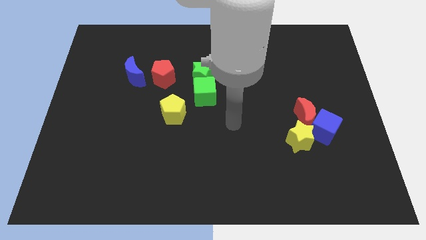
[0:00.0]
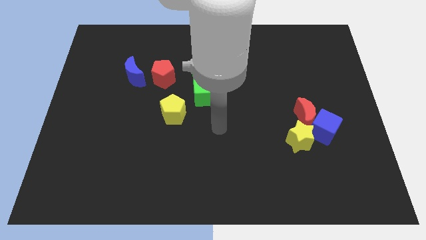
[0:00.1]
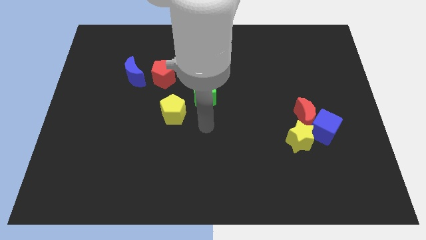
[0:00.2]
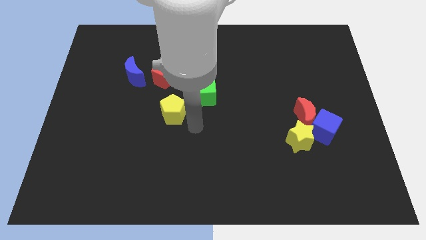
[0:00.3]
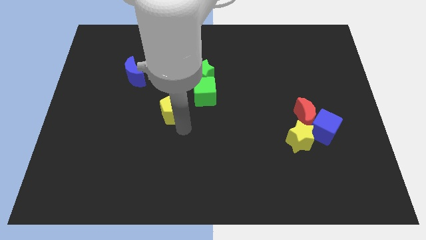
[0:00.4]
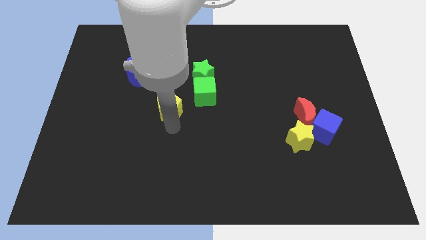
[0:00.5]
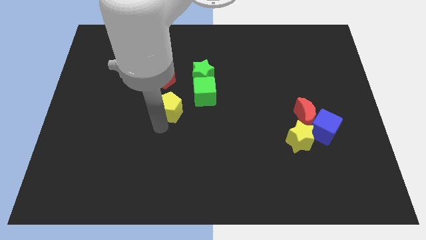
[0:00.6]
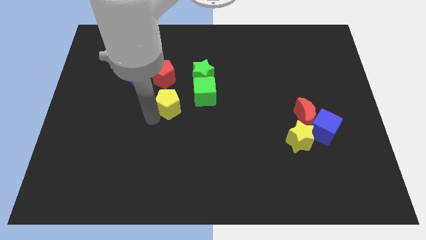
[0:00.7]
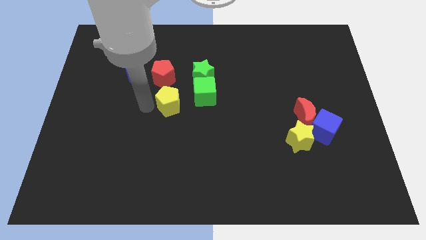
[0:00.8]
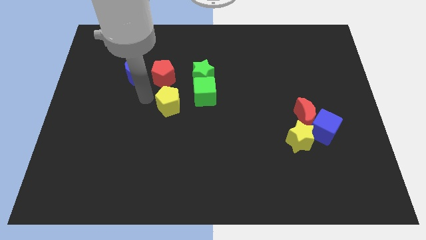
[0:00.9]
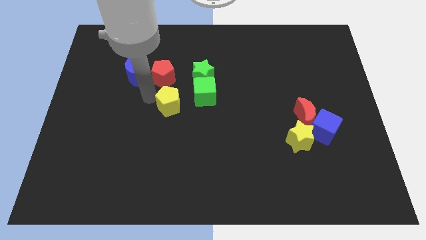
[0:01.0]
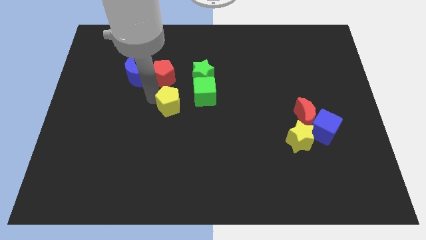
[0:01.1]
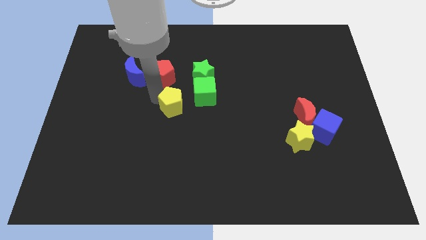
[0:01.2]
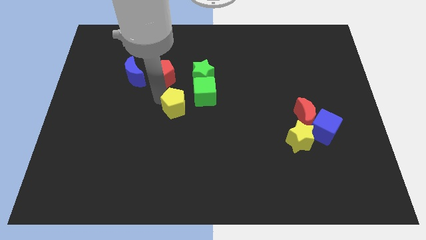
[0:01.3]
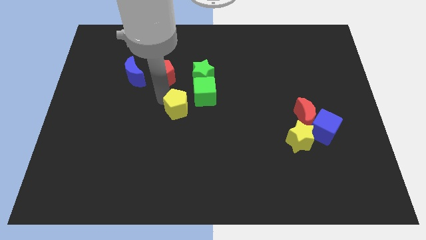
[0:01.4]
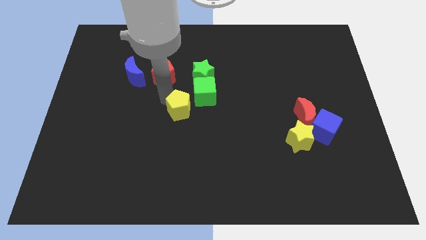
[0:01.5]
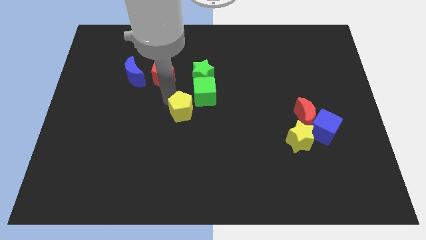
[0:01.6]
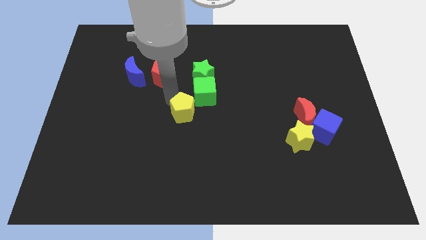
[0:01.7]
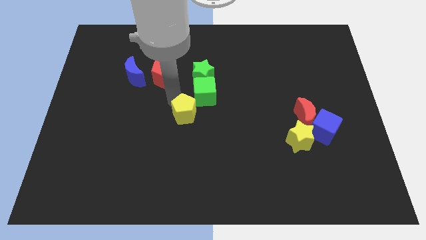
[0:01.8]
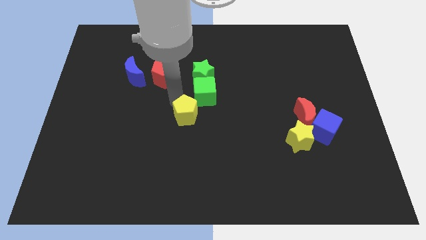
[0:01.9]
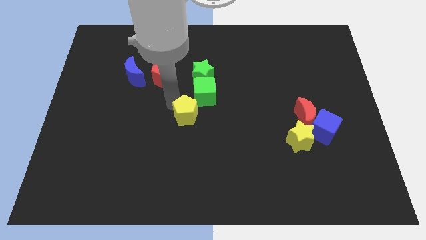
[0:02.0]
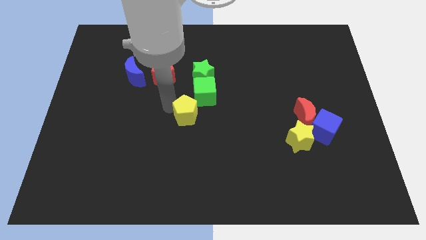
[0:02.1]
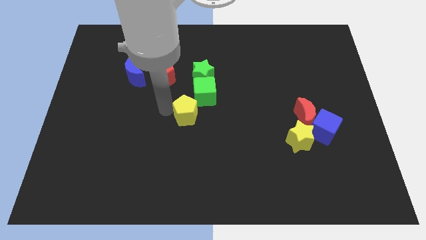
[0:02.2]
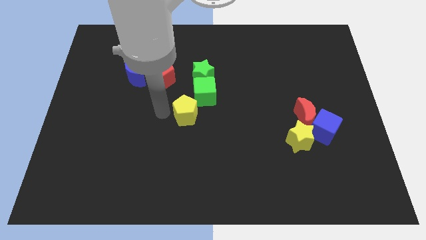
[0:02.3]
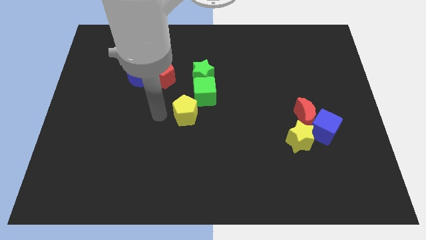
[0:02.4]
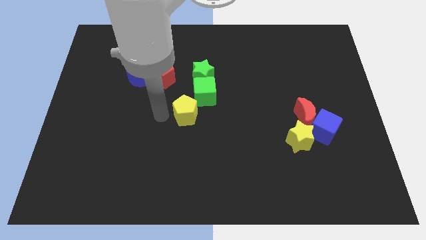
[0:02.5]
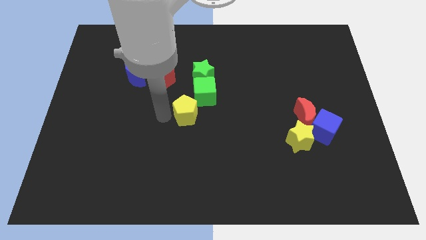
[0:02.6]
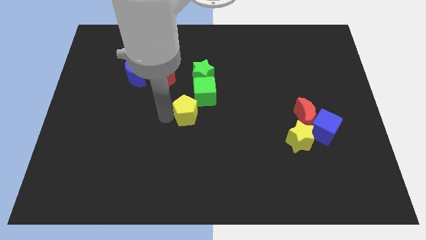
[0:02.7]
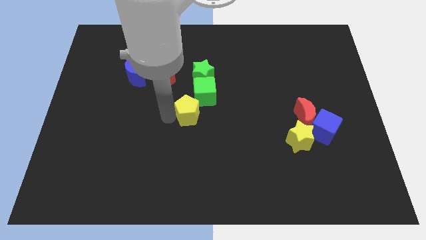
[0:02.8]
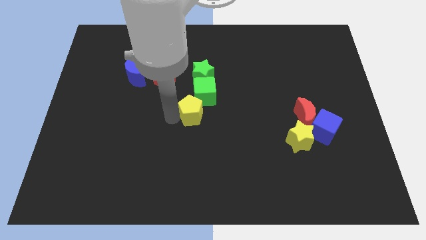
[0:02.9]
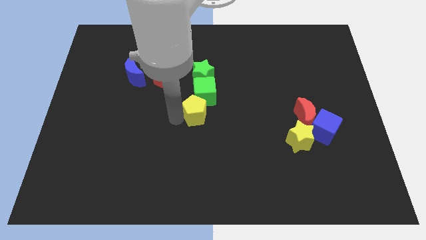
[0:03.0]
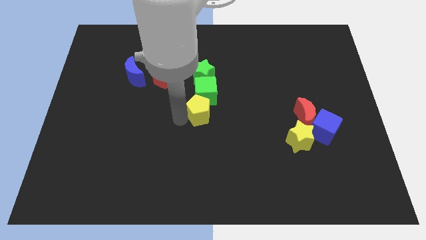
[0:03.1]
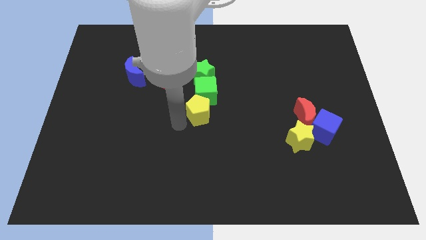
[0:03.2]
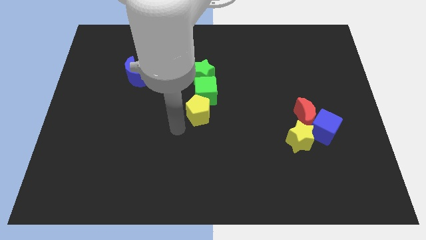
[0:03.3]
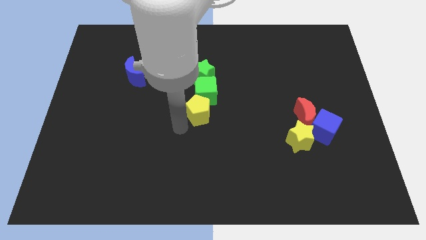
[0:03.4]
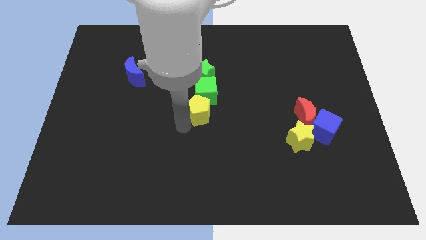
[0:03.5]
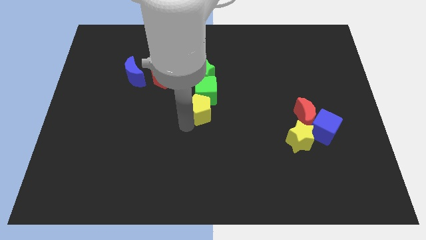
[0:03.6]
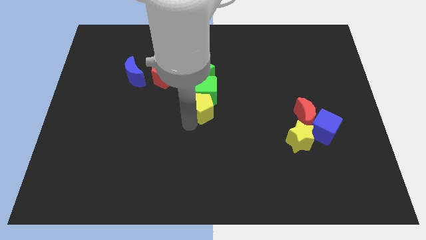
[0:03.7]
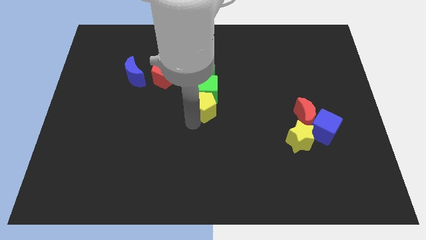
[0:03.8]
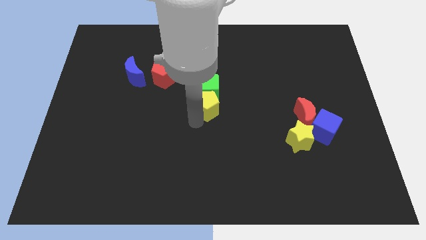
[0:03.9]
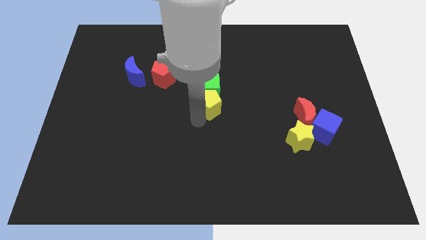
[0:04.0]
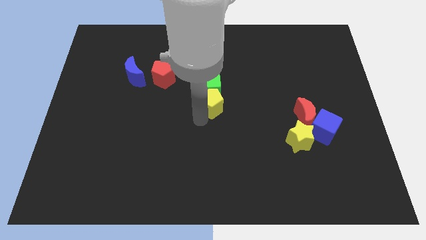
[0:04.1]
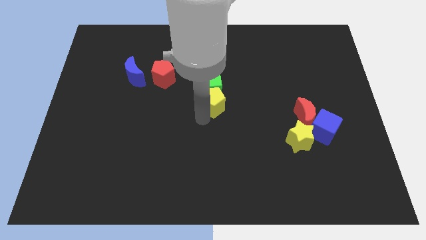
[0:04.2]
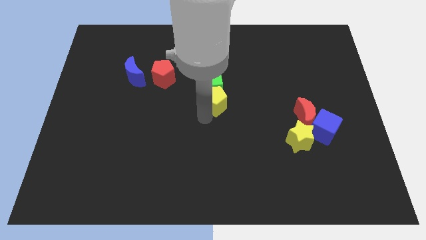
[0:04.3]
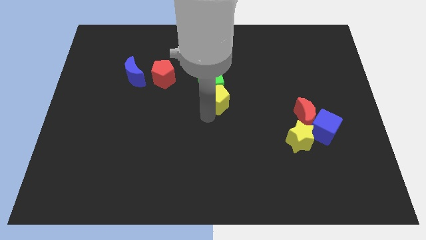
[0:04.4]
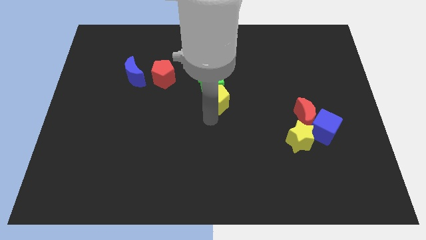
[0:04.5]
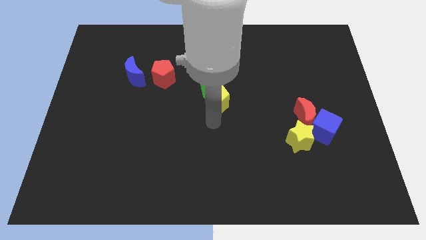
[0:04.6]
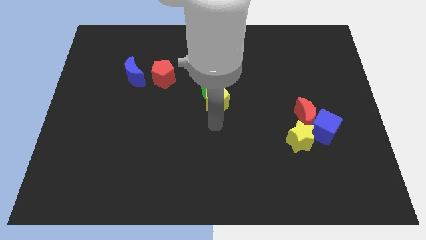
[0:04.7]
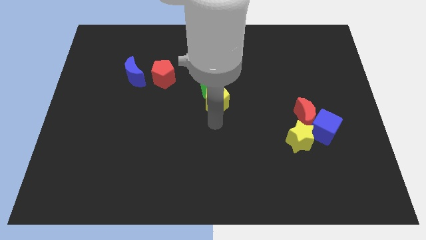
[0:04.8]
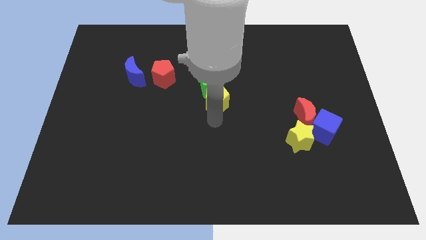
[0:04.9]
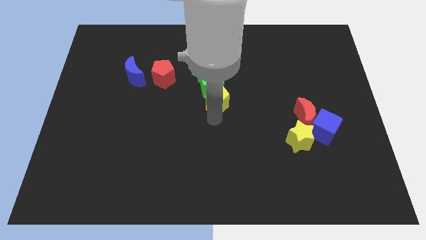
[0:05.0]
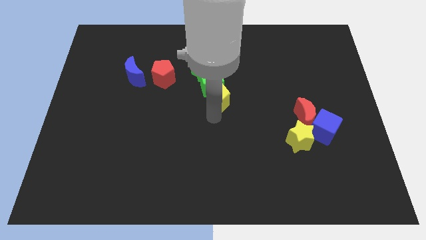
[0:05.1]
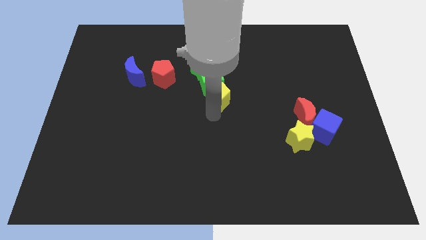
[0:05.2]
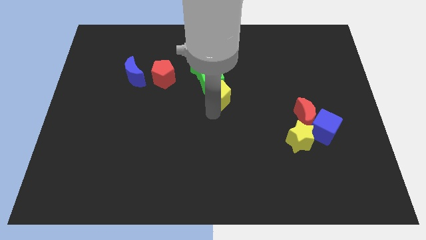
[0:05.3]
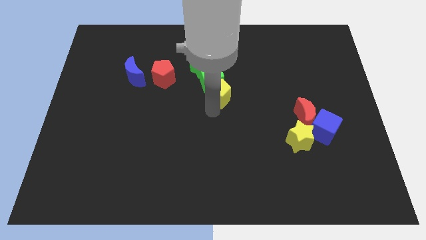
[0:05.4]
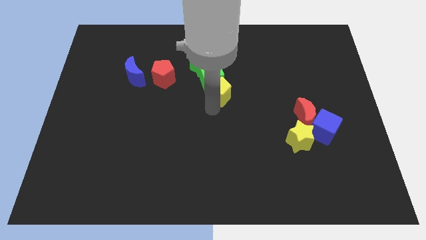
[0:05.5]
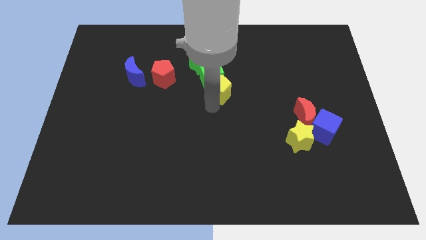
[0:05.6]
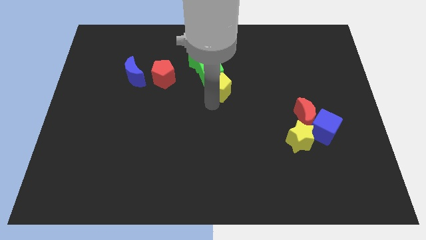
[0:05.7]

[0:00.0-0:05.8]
slide the yellow pentagon just right of the red pentagon

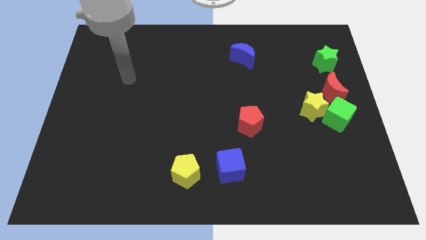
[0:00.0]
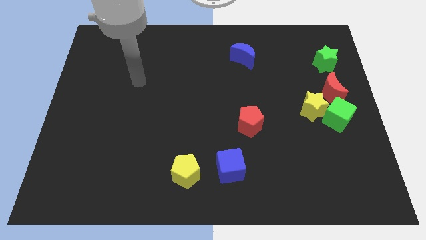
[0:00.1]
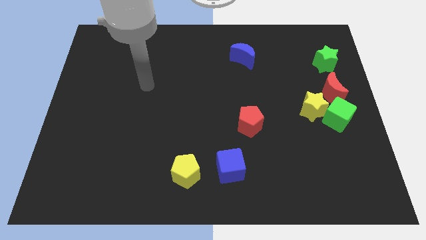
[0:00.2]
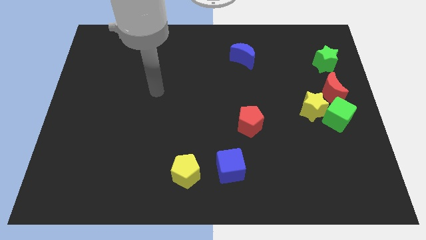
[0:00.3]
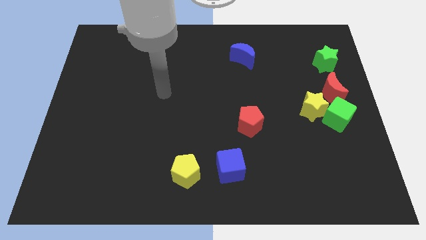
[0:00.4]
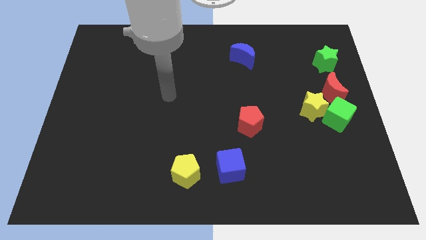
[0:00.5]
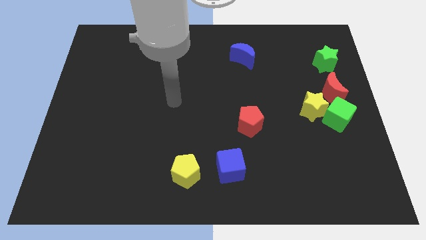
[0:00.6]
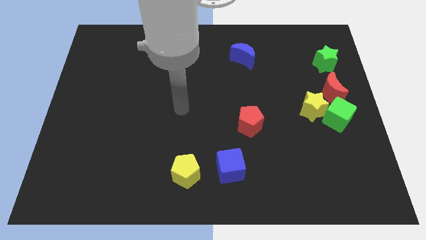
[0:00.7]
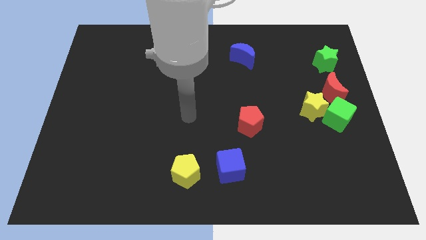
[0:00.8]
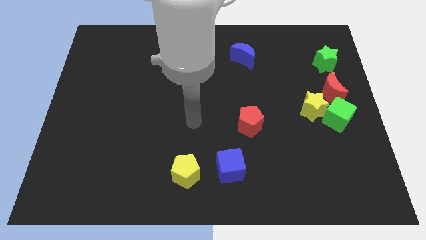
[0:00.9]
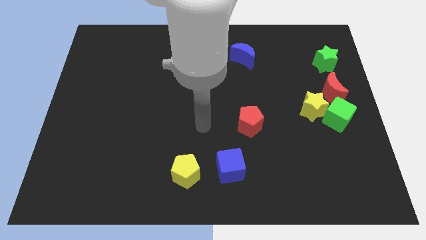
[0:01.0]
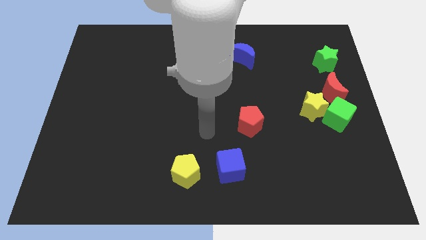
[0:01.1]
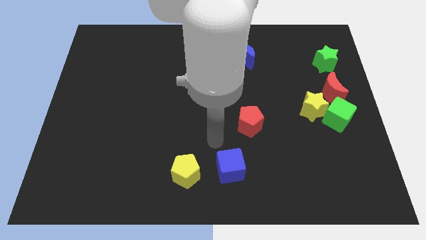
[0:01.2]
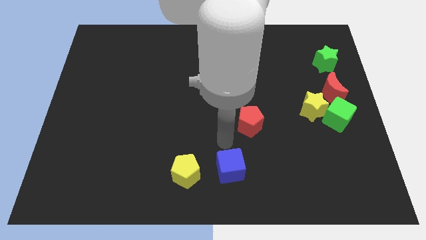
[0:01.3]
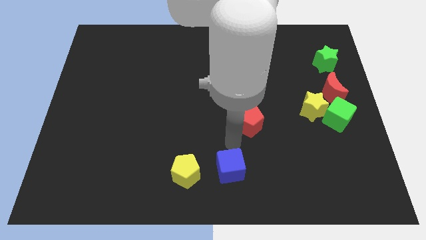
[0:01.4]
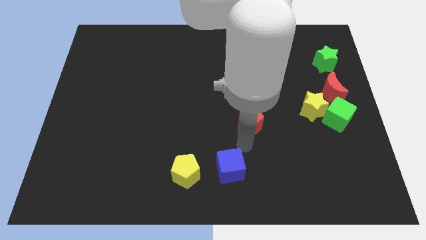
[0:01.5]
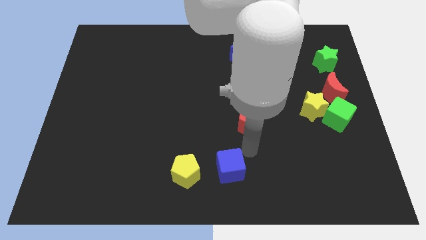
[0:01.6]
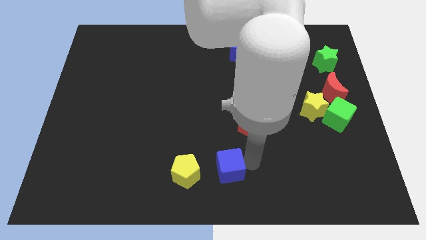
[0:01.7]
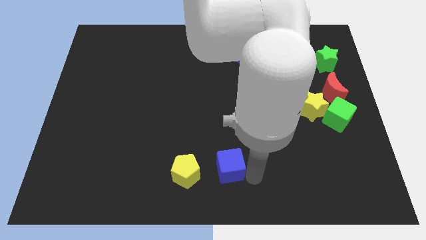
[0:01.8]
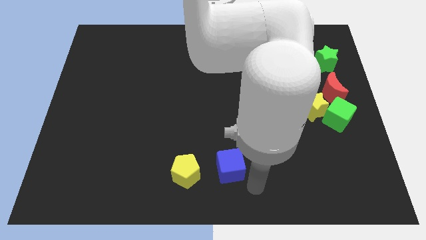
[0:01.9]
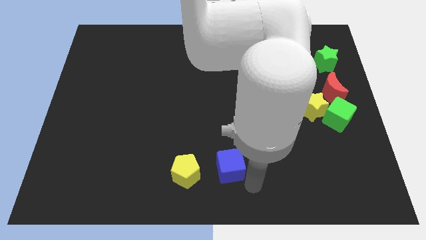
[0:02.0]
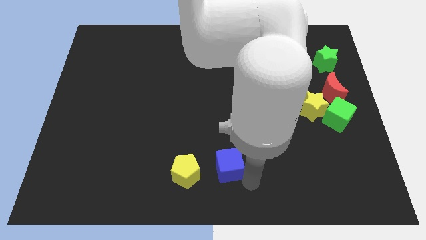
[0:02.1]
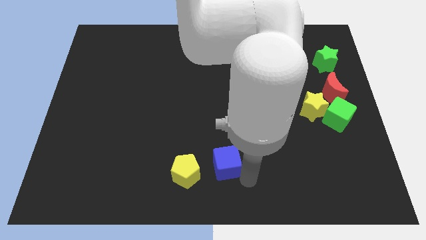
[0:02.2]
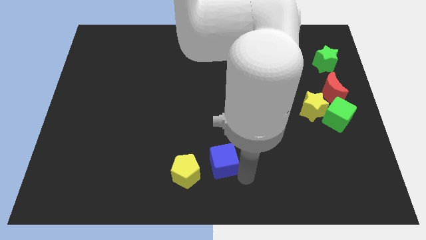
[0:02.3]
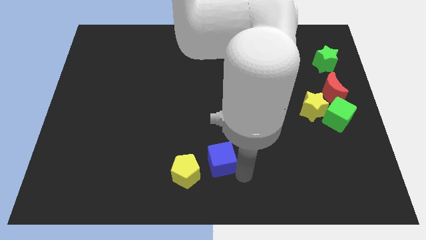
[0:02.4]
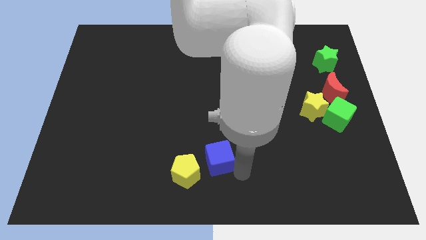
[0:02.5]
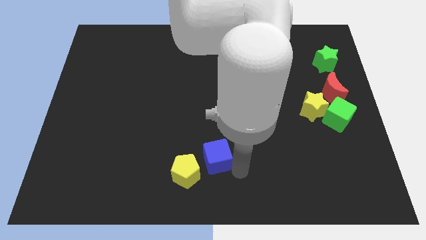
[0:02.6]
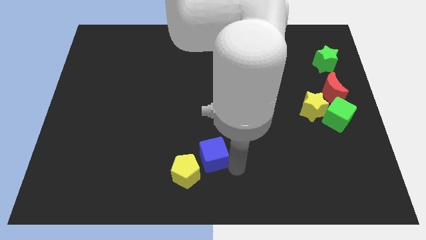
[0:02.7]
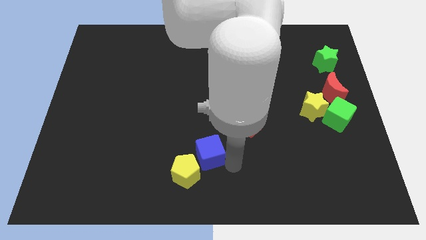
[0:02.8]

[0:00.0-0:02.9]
push the blue cube above the yellow pentagon
